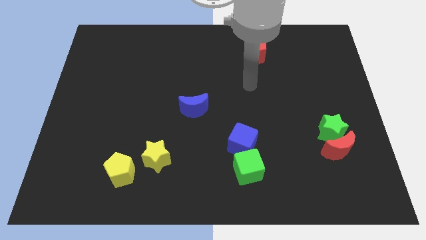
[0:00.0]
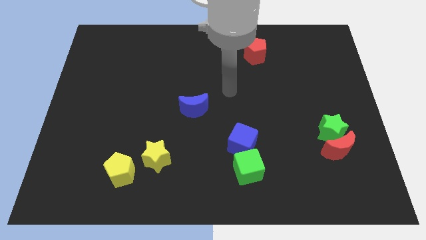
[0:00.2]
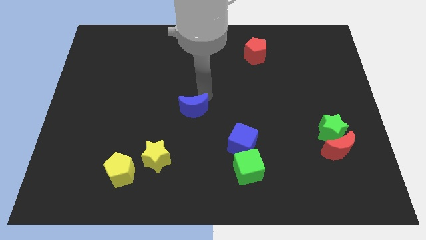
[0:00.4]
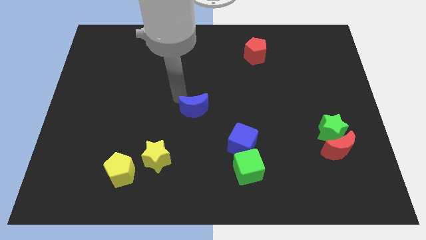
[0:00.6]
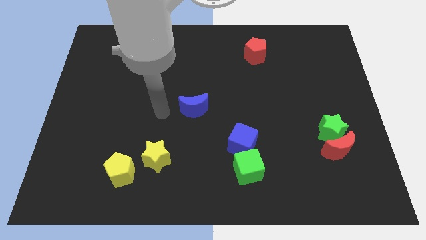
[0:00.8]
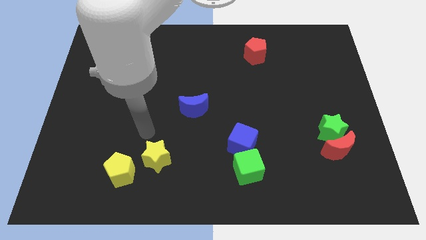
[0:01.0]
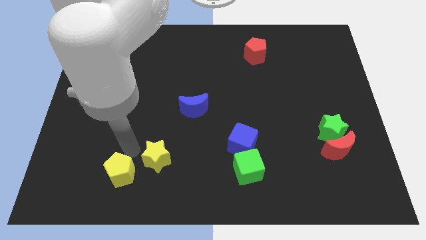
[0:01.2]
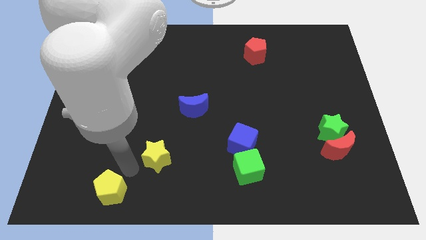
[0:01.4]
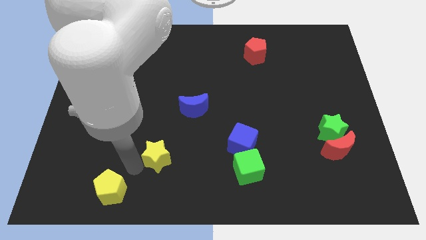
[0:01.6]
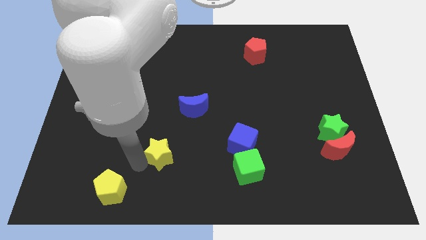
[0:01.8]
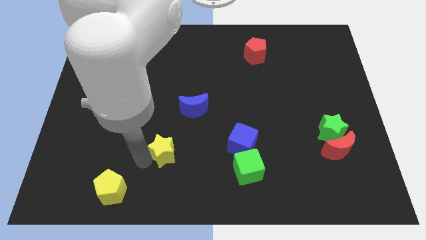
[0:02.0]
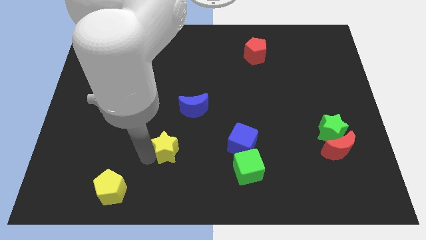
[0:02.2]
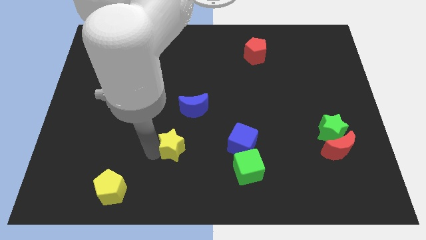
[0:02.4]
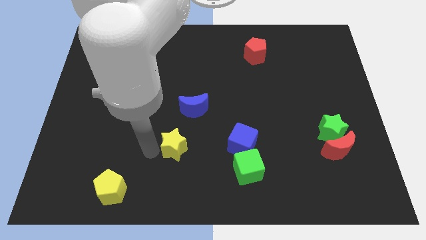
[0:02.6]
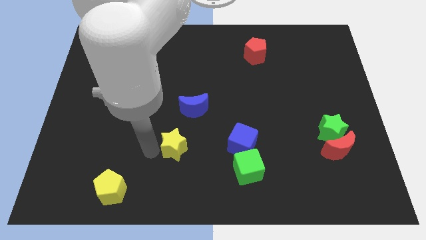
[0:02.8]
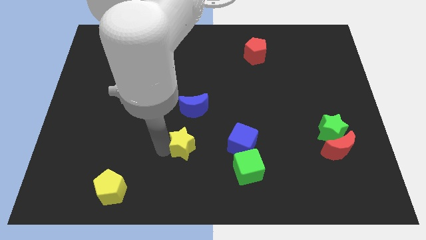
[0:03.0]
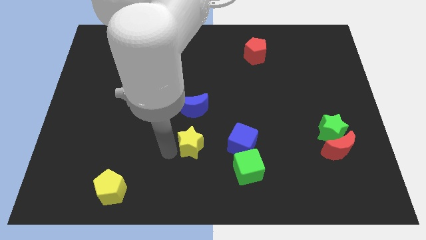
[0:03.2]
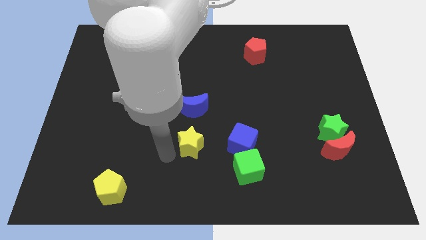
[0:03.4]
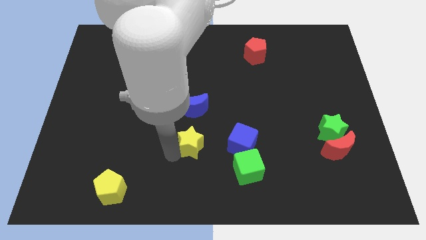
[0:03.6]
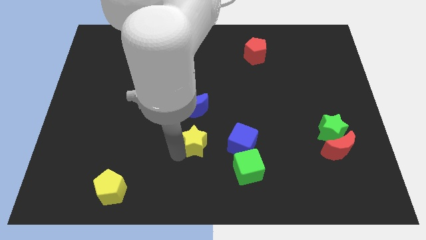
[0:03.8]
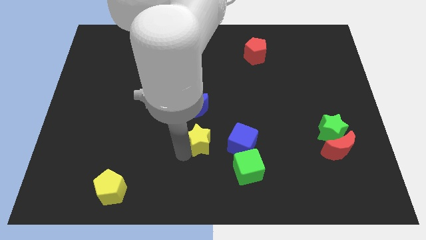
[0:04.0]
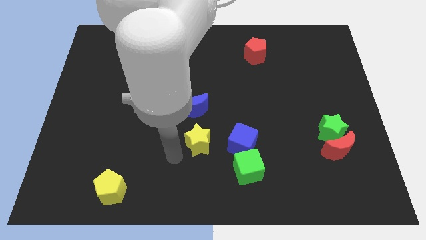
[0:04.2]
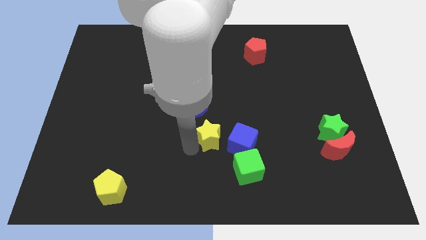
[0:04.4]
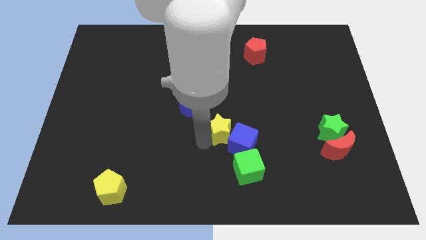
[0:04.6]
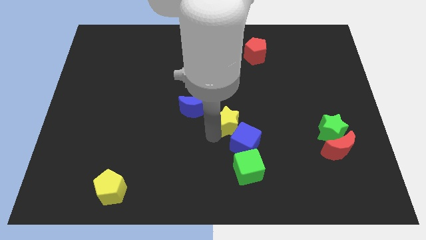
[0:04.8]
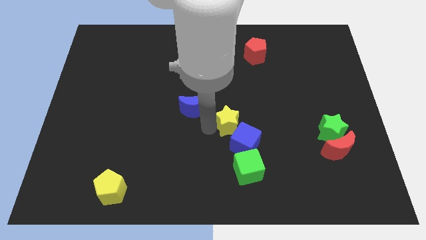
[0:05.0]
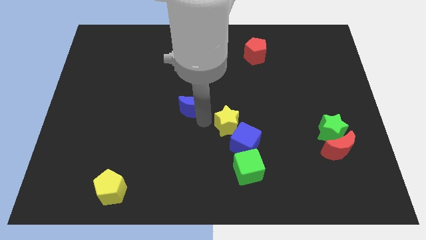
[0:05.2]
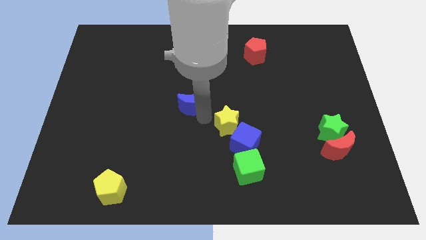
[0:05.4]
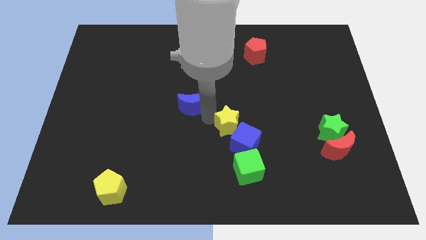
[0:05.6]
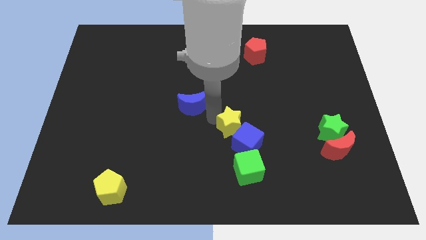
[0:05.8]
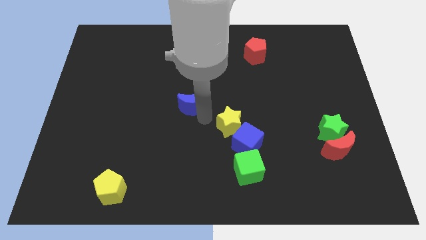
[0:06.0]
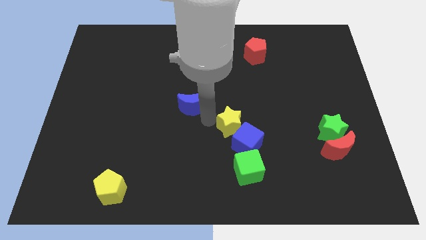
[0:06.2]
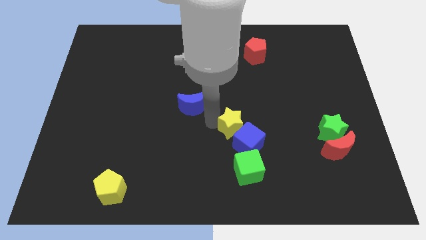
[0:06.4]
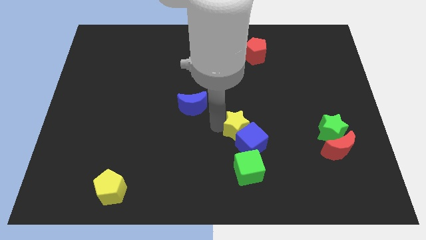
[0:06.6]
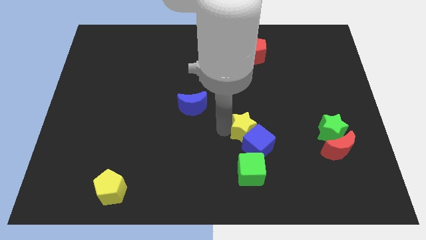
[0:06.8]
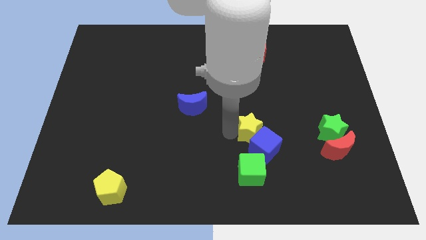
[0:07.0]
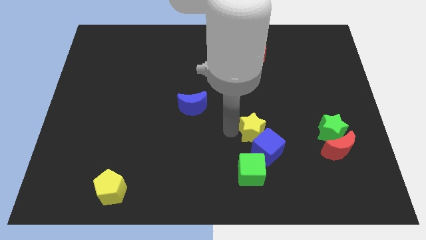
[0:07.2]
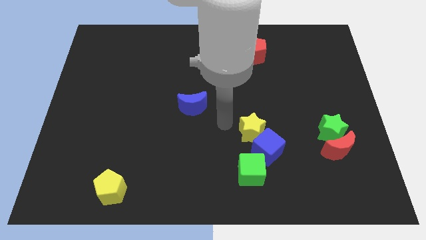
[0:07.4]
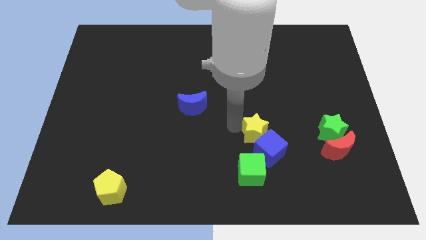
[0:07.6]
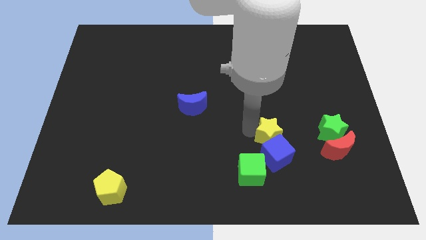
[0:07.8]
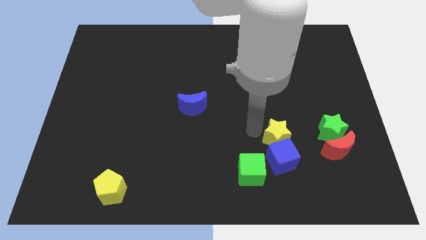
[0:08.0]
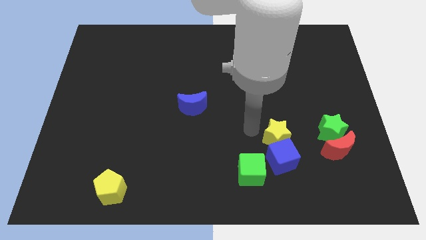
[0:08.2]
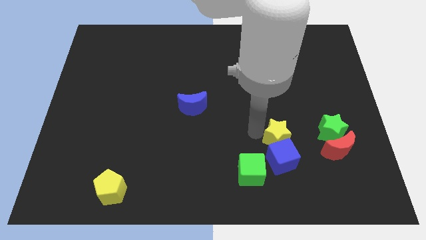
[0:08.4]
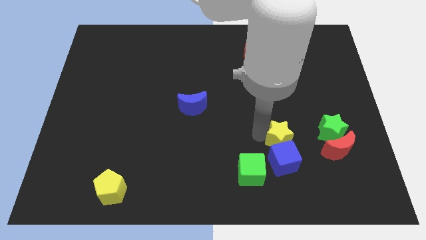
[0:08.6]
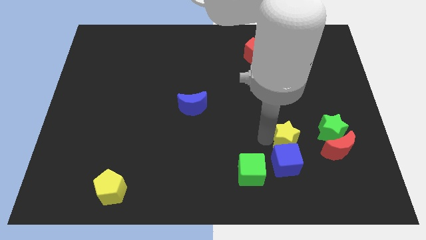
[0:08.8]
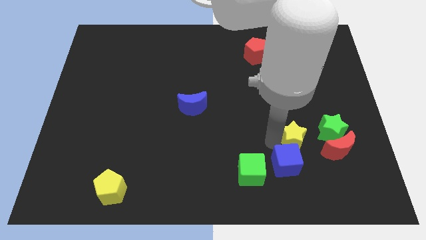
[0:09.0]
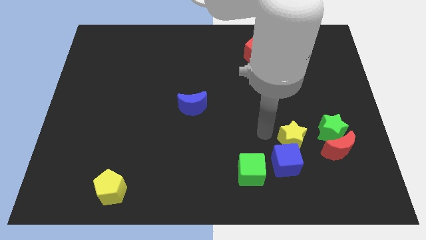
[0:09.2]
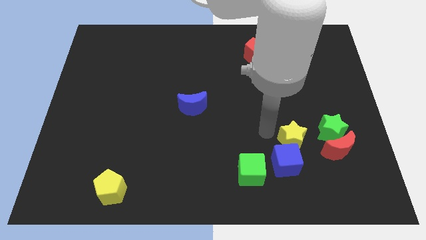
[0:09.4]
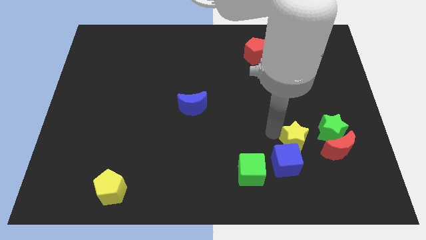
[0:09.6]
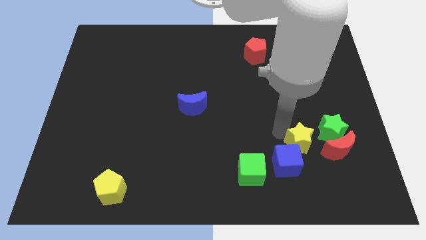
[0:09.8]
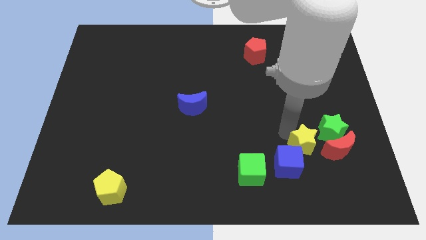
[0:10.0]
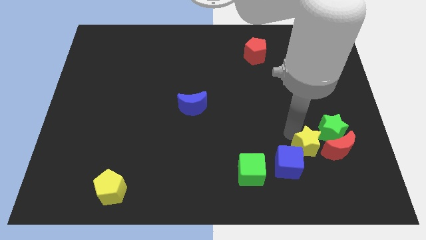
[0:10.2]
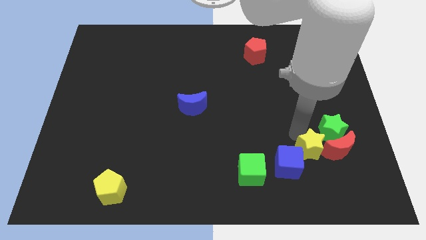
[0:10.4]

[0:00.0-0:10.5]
push the yellow star next to the red moon

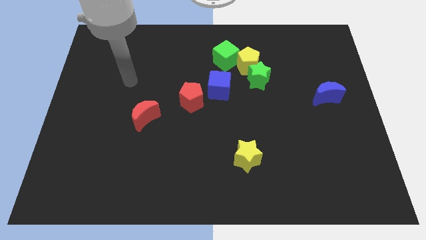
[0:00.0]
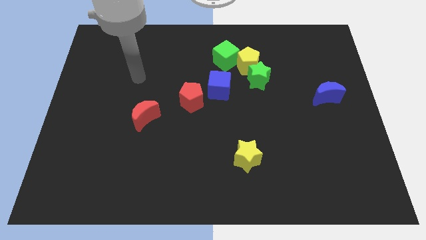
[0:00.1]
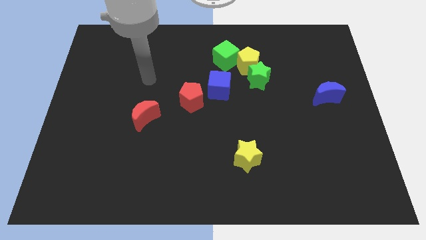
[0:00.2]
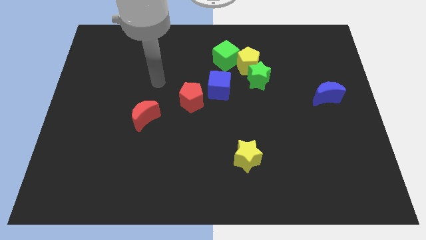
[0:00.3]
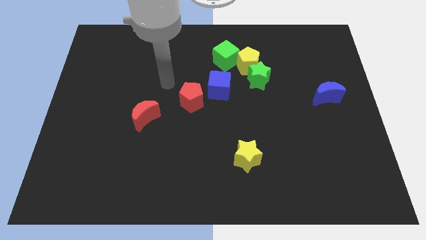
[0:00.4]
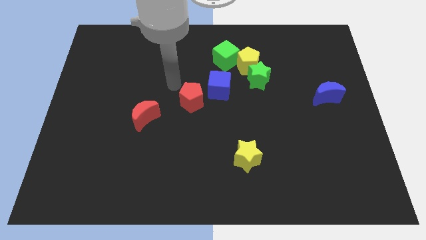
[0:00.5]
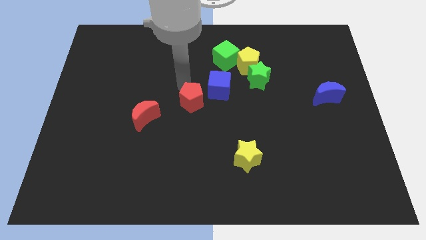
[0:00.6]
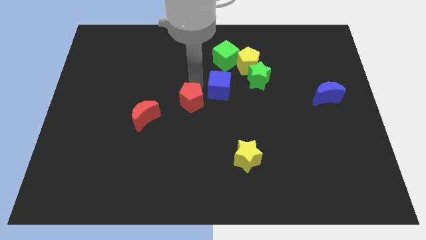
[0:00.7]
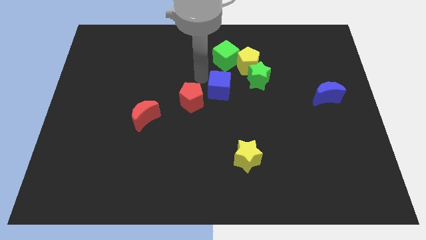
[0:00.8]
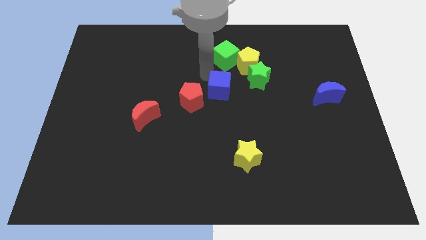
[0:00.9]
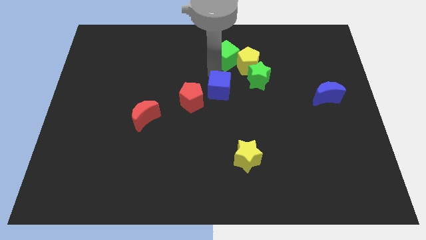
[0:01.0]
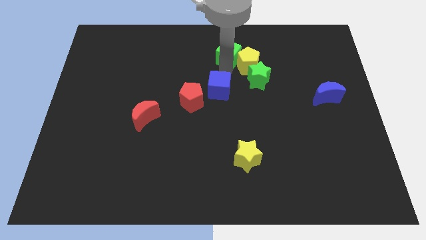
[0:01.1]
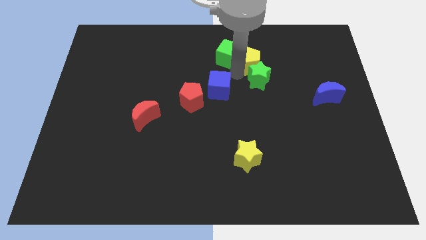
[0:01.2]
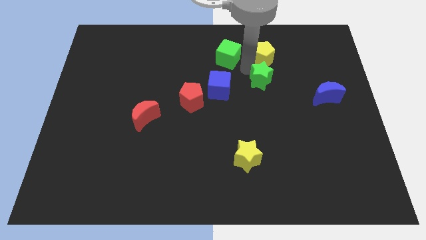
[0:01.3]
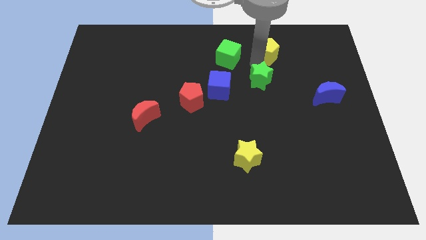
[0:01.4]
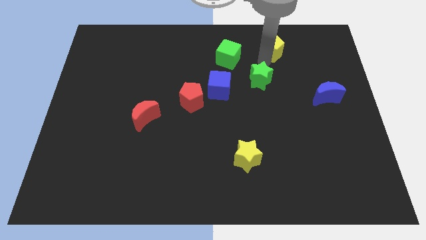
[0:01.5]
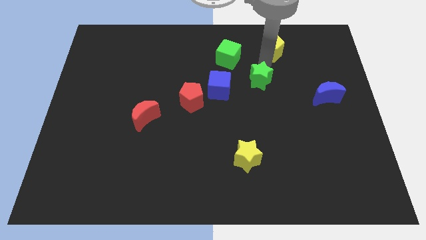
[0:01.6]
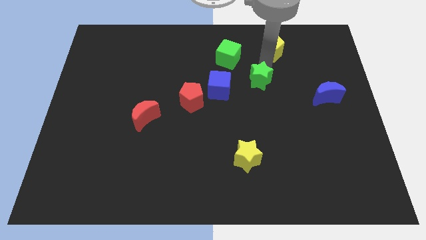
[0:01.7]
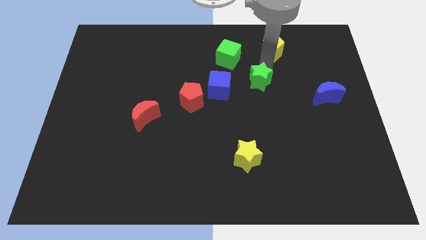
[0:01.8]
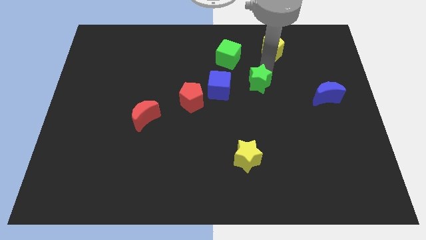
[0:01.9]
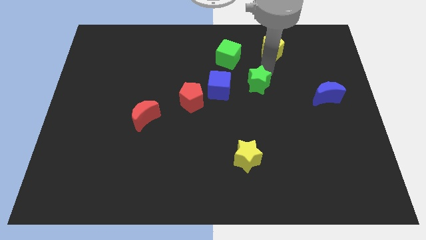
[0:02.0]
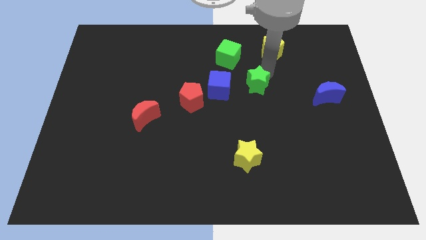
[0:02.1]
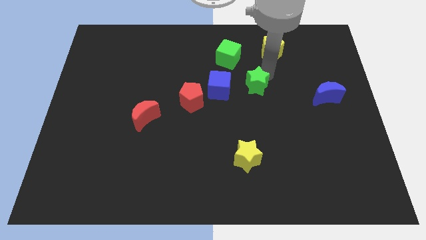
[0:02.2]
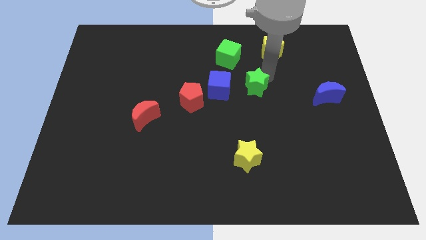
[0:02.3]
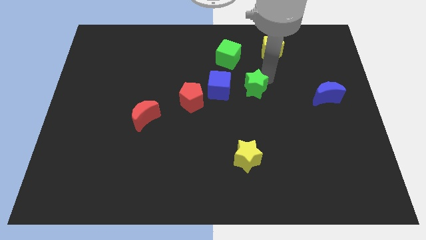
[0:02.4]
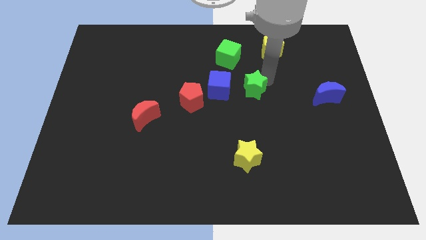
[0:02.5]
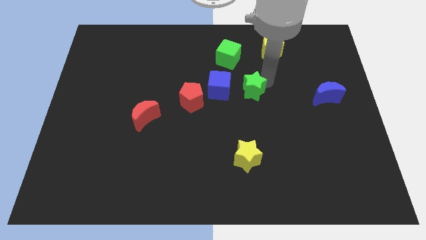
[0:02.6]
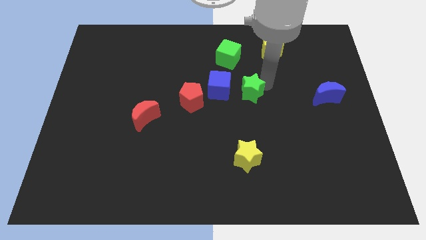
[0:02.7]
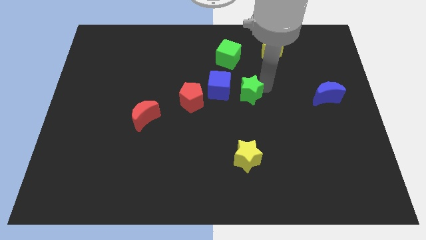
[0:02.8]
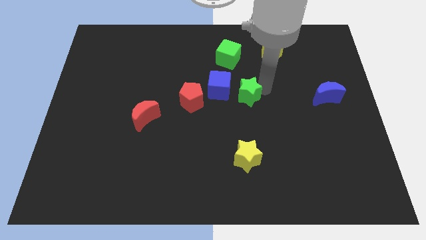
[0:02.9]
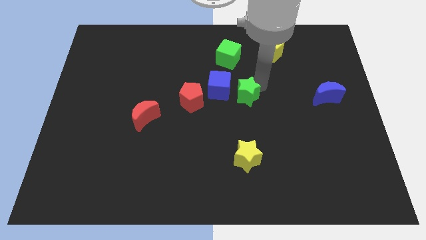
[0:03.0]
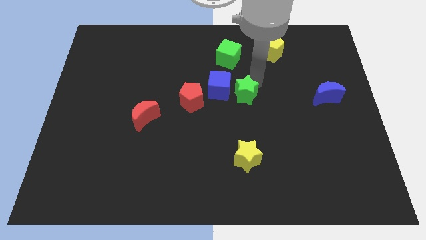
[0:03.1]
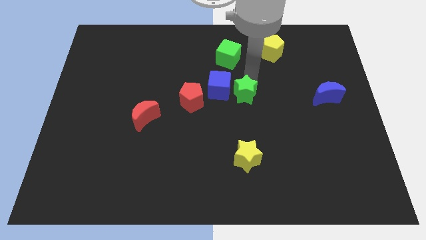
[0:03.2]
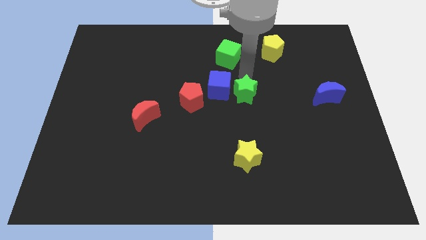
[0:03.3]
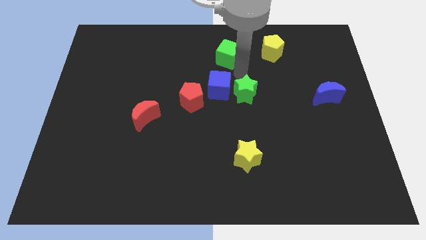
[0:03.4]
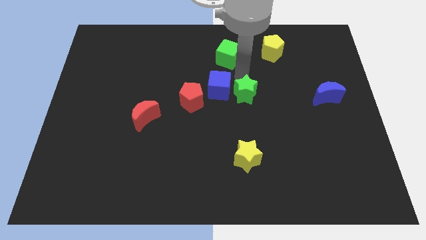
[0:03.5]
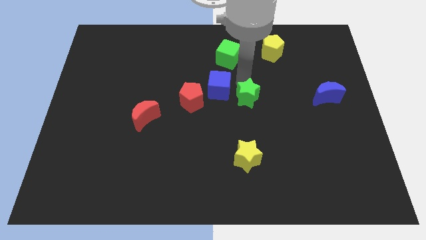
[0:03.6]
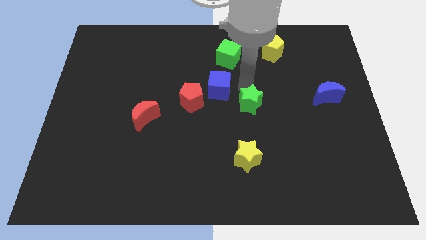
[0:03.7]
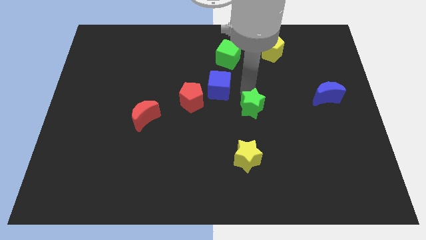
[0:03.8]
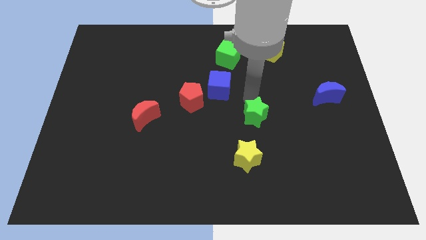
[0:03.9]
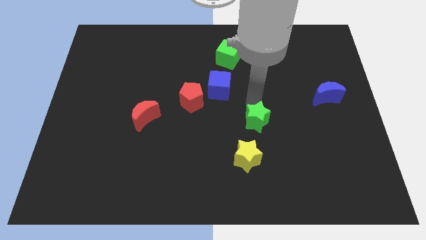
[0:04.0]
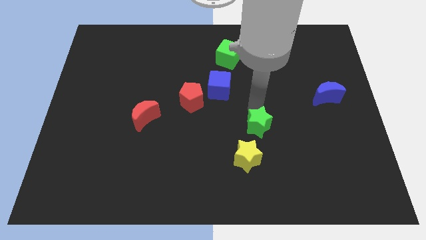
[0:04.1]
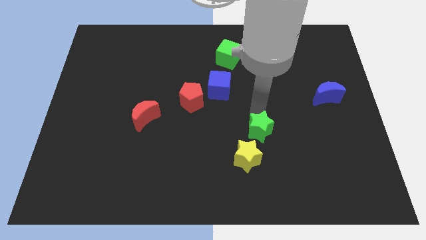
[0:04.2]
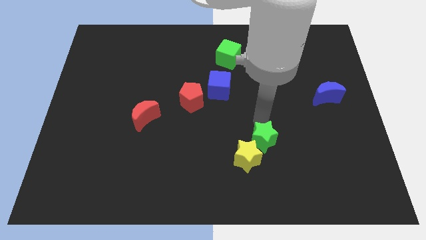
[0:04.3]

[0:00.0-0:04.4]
slide the green star towards the yellow star
